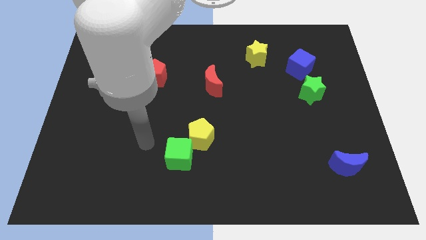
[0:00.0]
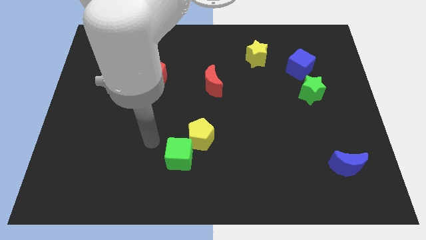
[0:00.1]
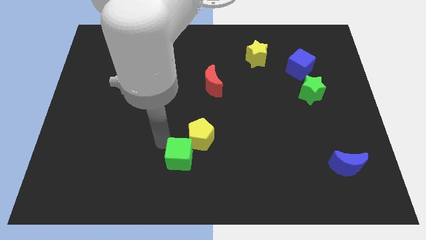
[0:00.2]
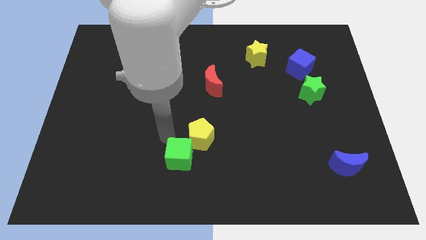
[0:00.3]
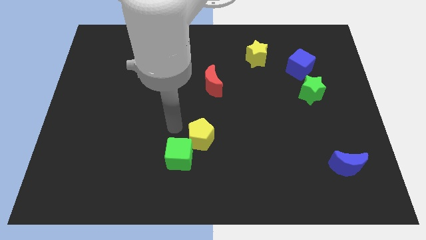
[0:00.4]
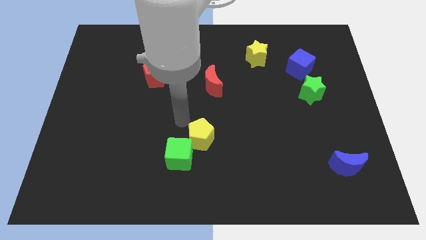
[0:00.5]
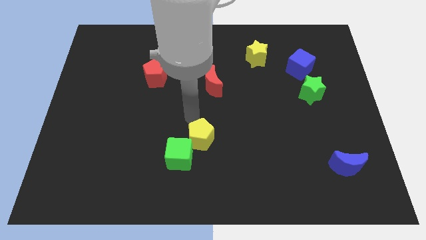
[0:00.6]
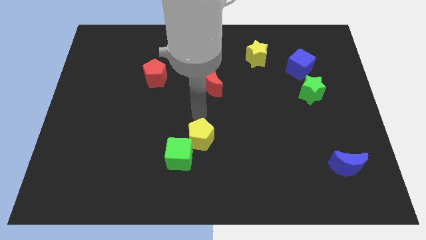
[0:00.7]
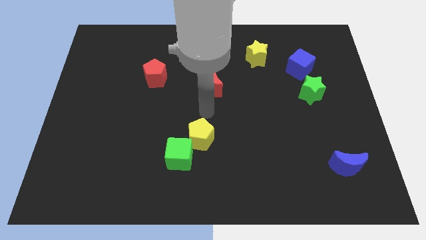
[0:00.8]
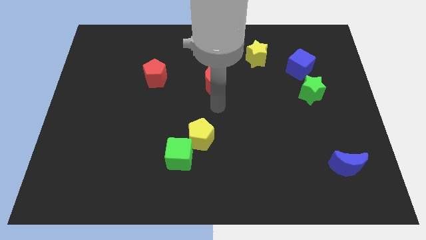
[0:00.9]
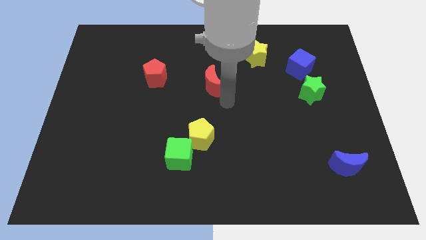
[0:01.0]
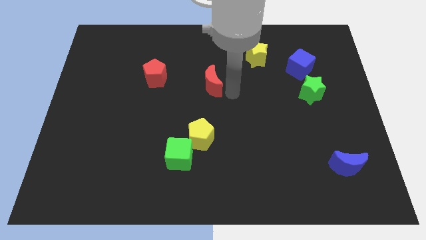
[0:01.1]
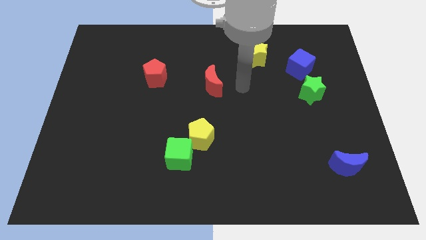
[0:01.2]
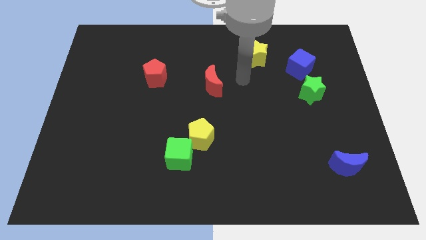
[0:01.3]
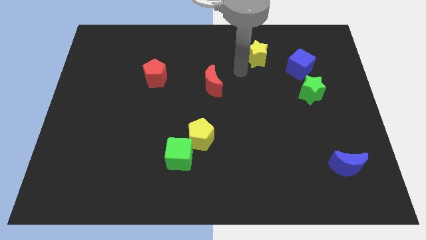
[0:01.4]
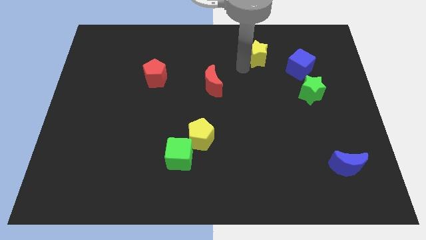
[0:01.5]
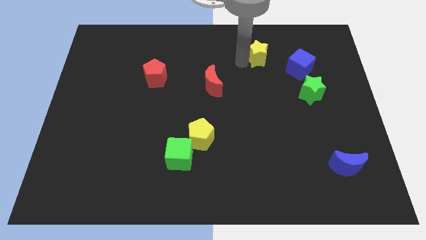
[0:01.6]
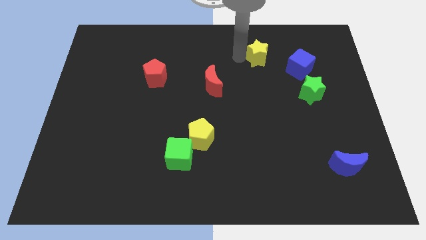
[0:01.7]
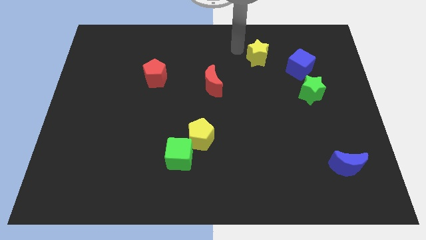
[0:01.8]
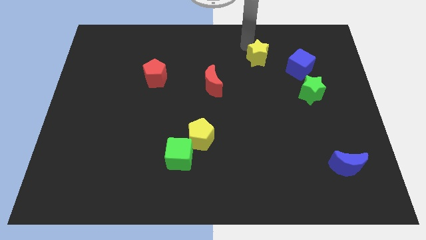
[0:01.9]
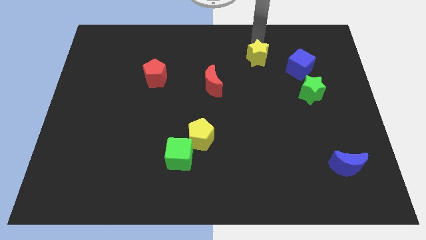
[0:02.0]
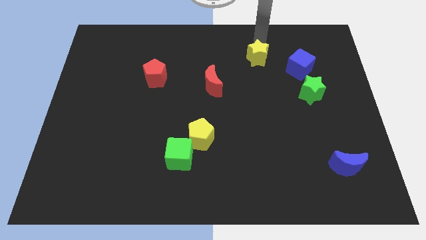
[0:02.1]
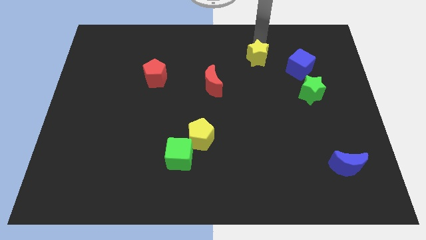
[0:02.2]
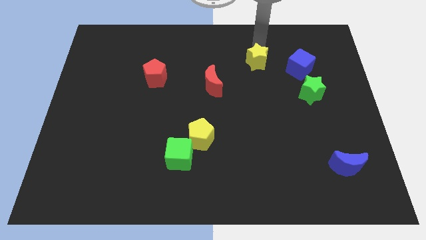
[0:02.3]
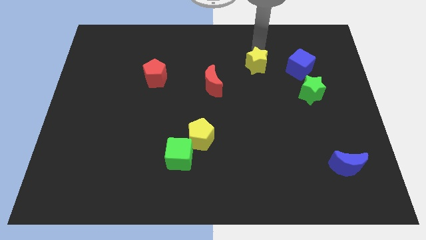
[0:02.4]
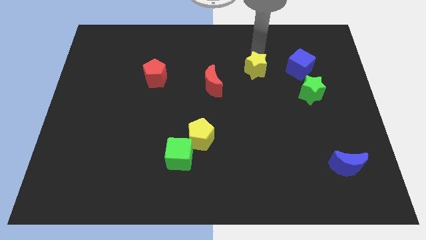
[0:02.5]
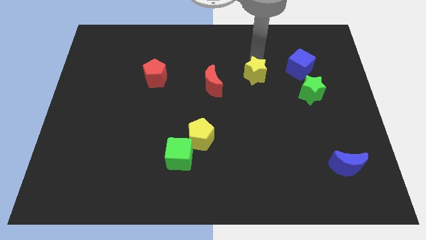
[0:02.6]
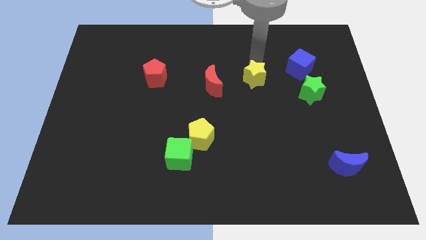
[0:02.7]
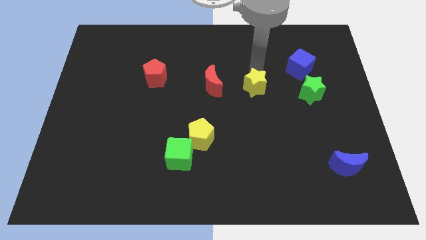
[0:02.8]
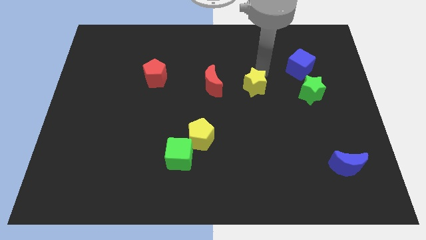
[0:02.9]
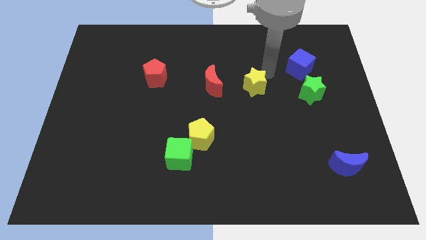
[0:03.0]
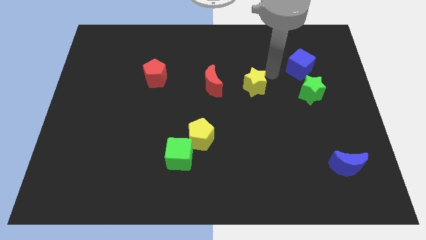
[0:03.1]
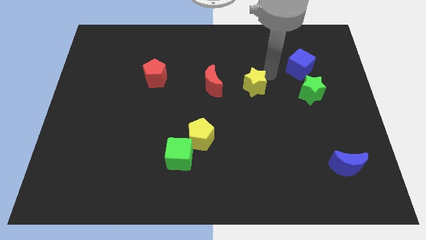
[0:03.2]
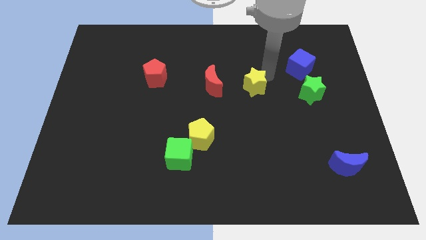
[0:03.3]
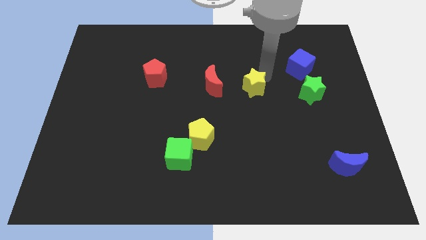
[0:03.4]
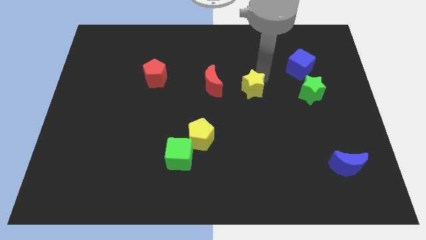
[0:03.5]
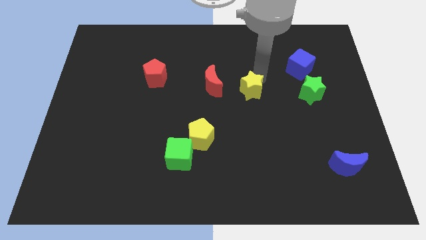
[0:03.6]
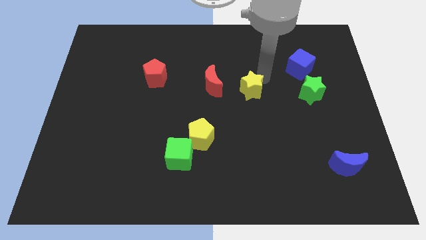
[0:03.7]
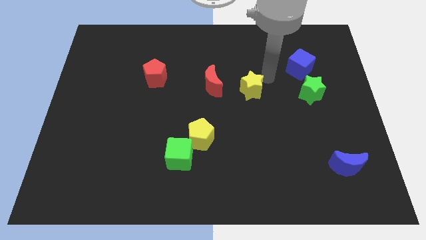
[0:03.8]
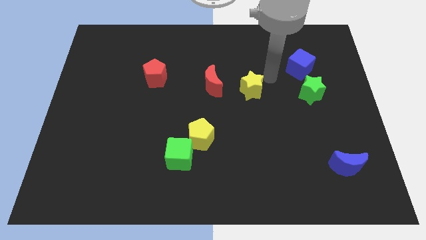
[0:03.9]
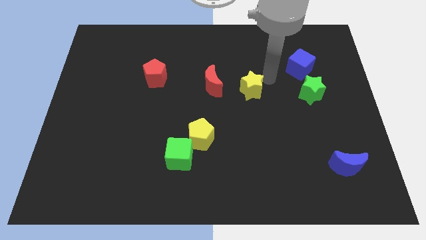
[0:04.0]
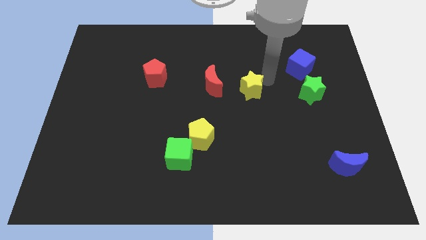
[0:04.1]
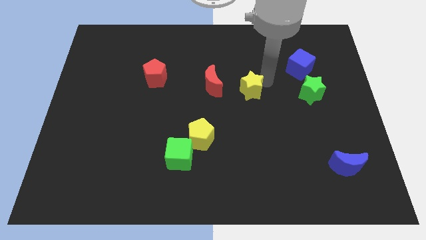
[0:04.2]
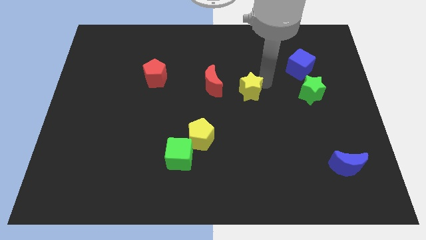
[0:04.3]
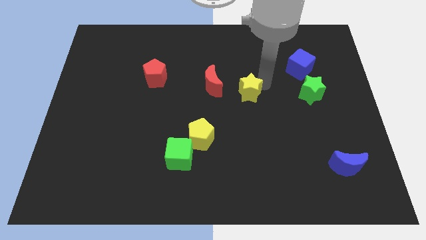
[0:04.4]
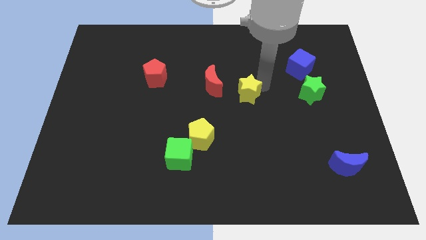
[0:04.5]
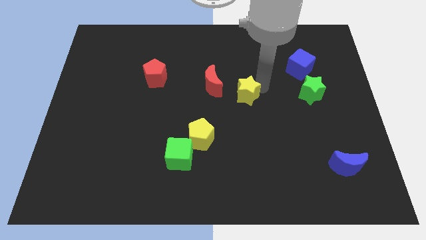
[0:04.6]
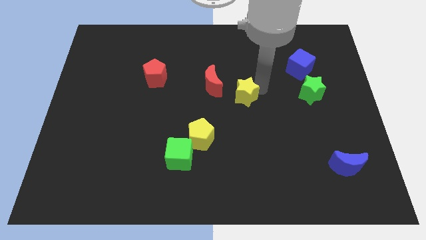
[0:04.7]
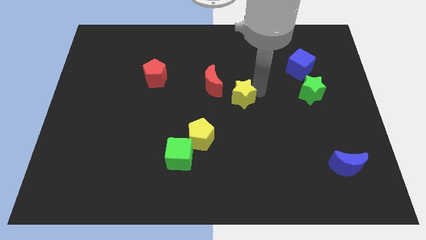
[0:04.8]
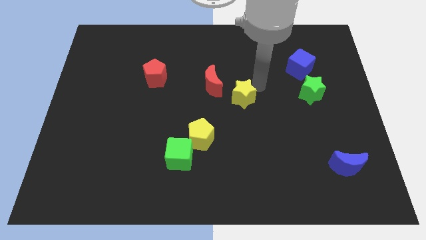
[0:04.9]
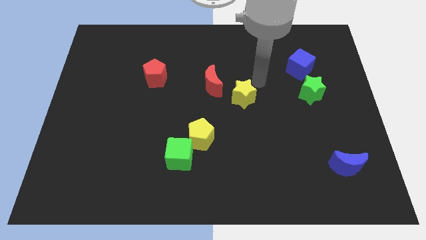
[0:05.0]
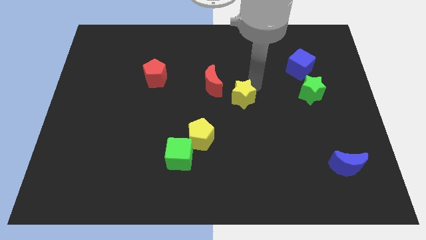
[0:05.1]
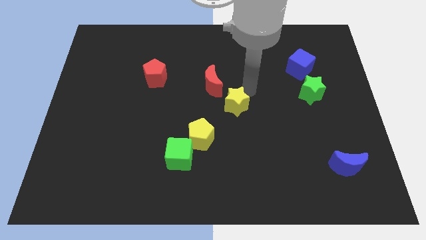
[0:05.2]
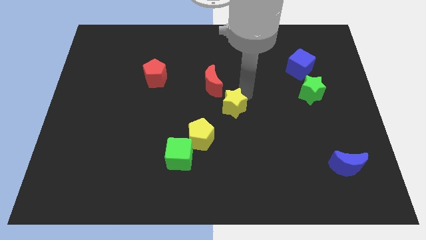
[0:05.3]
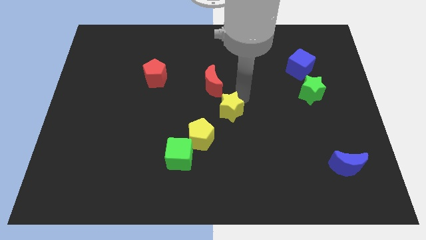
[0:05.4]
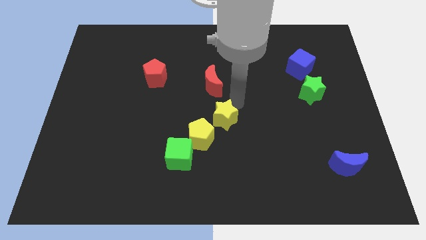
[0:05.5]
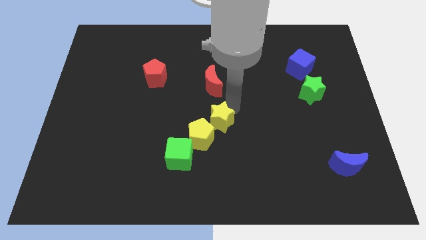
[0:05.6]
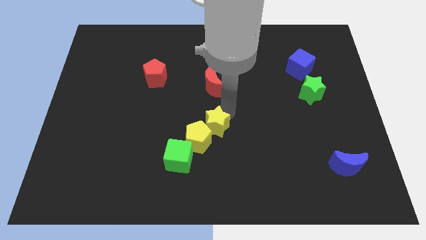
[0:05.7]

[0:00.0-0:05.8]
push the yellow star next to the yellow pentagon

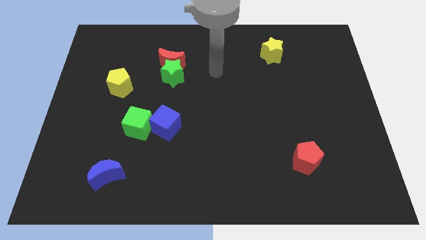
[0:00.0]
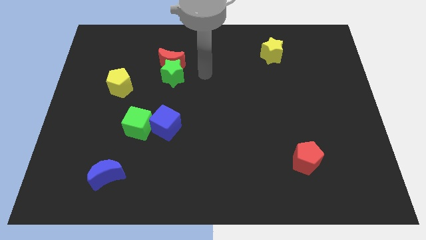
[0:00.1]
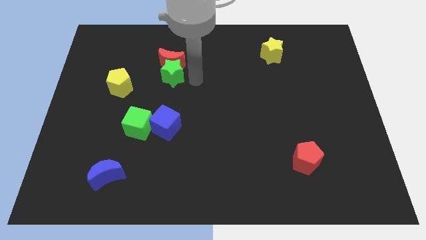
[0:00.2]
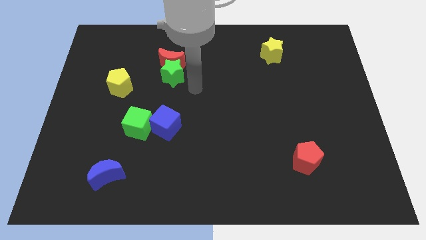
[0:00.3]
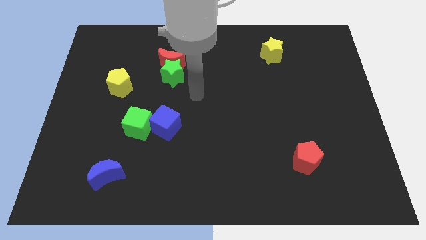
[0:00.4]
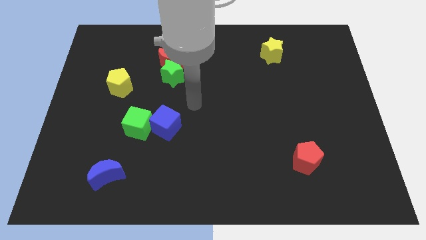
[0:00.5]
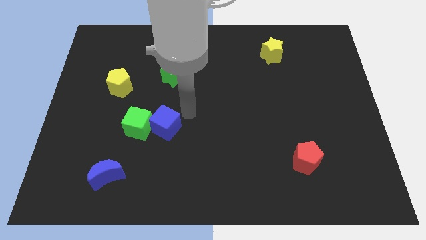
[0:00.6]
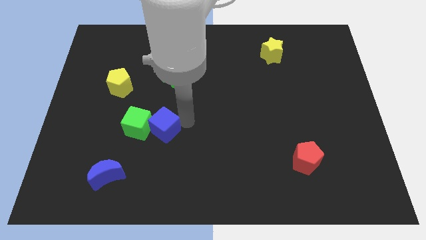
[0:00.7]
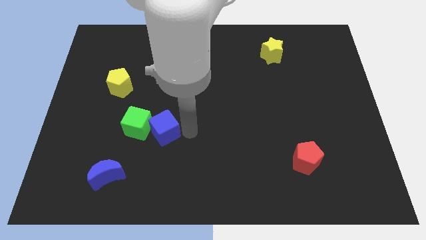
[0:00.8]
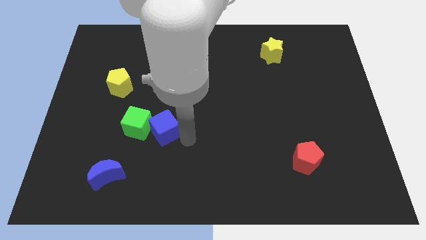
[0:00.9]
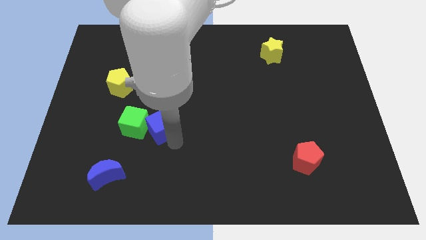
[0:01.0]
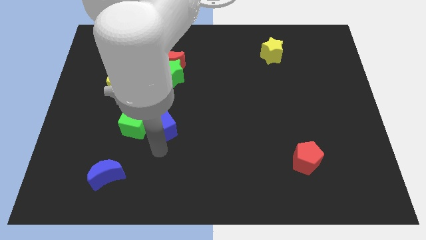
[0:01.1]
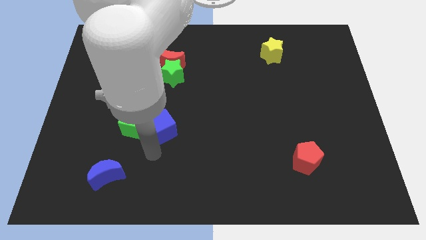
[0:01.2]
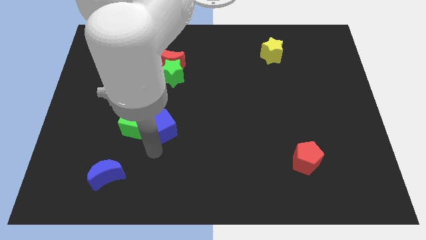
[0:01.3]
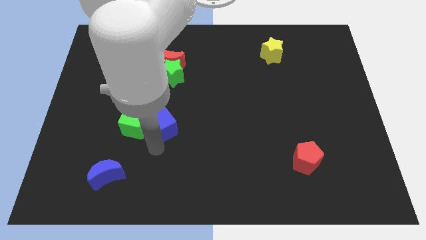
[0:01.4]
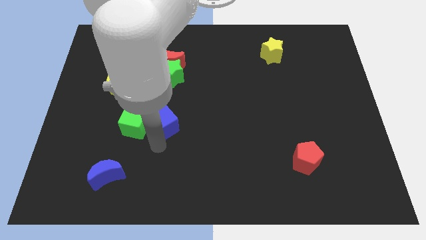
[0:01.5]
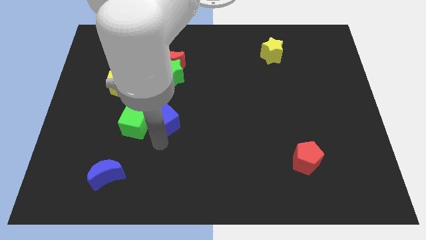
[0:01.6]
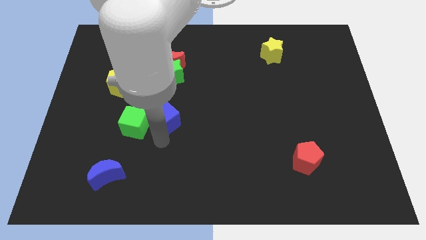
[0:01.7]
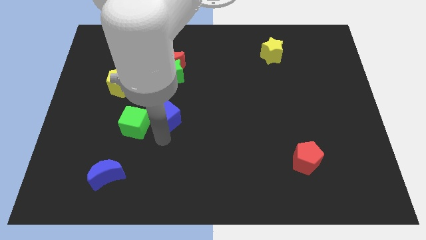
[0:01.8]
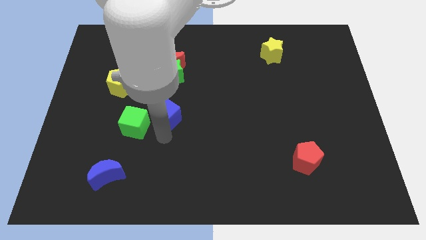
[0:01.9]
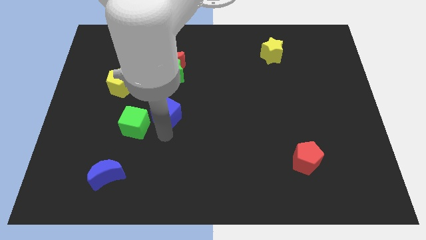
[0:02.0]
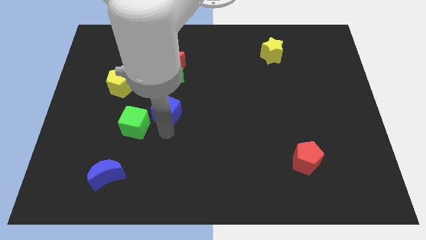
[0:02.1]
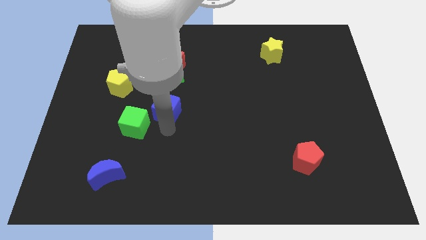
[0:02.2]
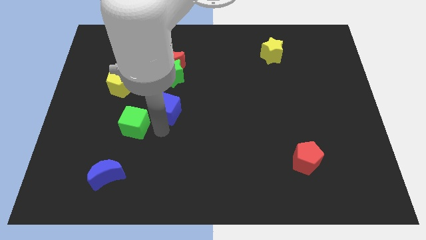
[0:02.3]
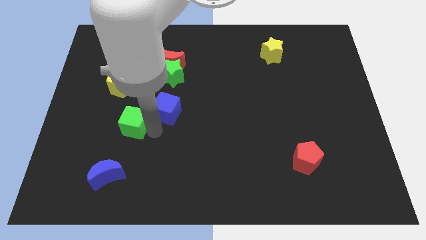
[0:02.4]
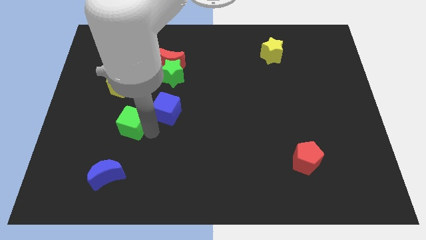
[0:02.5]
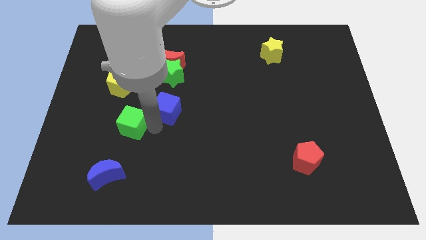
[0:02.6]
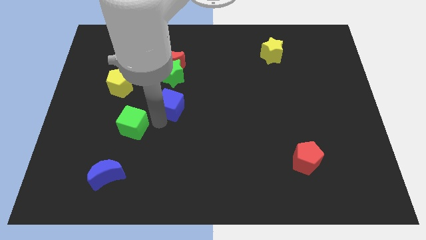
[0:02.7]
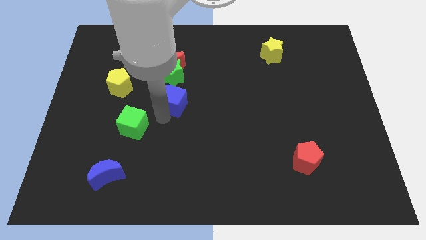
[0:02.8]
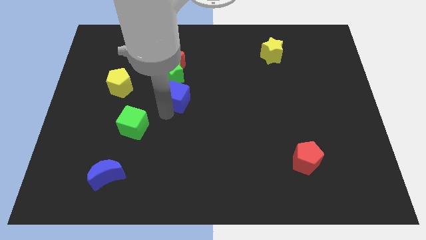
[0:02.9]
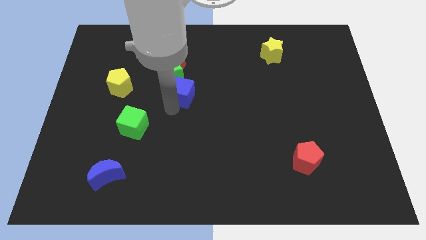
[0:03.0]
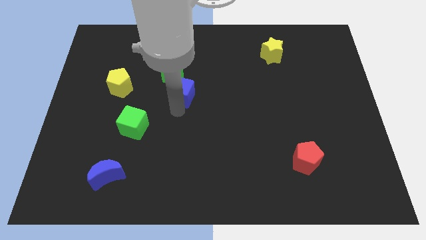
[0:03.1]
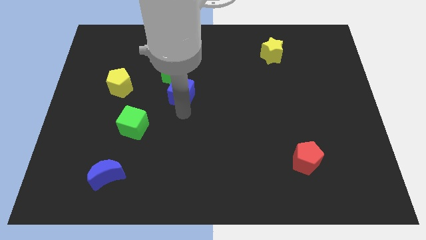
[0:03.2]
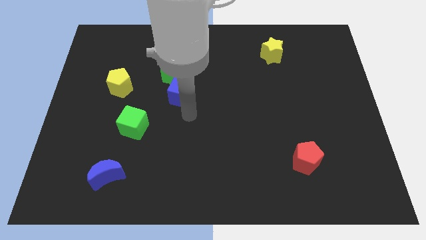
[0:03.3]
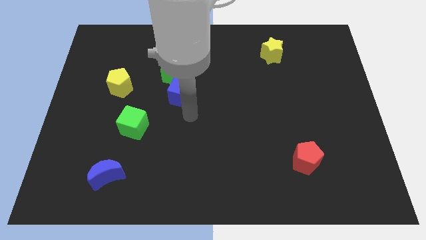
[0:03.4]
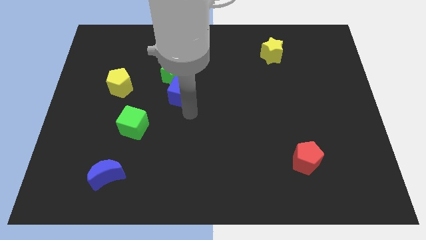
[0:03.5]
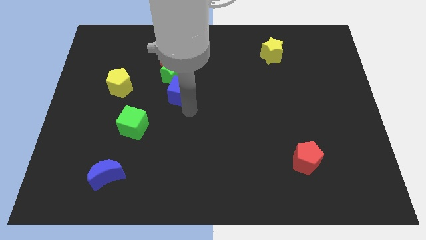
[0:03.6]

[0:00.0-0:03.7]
slide the blue cube next to the green star
